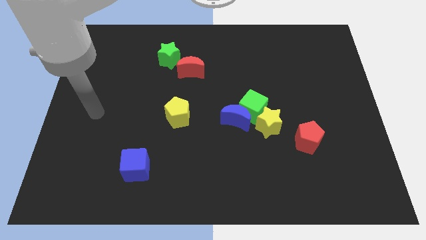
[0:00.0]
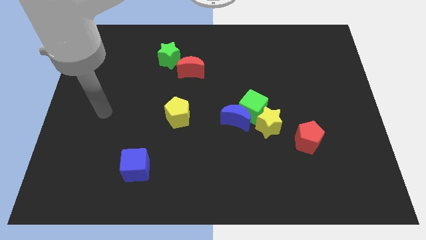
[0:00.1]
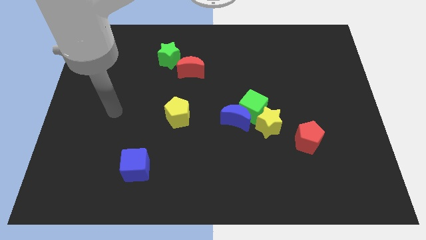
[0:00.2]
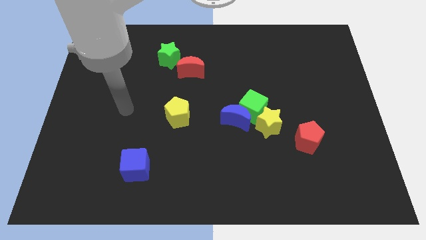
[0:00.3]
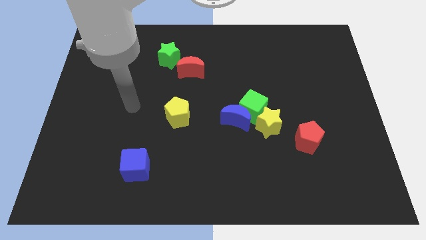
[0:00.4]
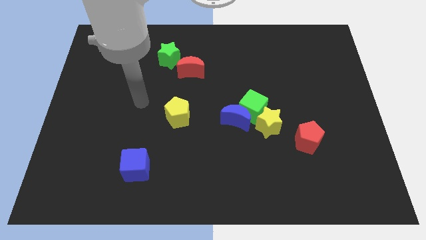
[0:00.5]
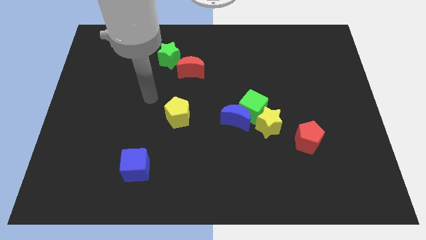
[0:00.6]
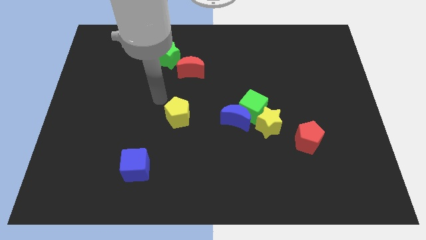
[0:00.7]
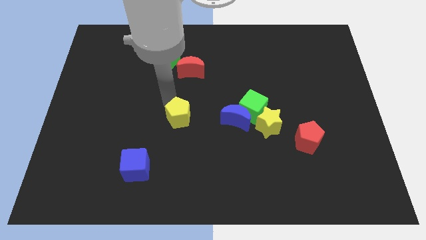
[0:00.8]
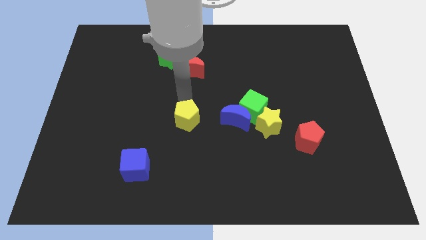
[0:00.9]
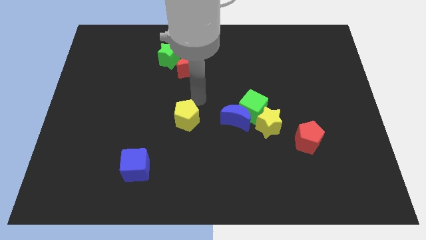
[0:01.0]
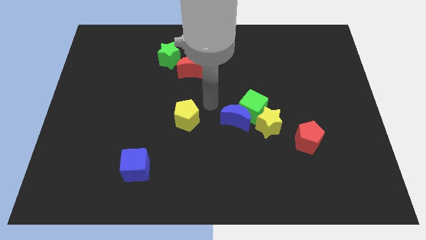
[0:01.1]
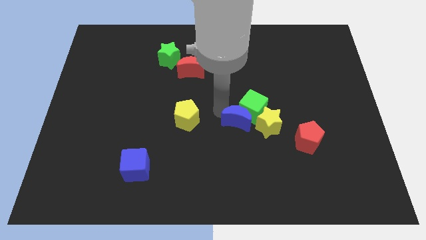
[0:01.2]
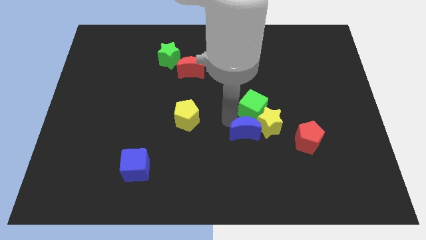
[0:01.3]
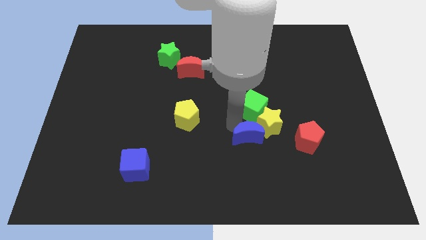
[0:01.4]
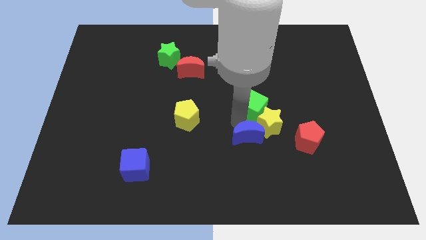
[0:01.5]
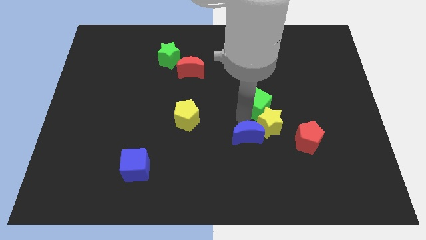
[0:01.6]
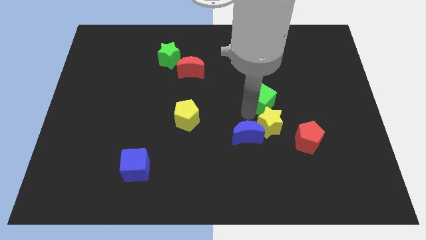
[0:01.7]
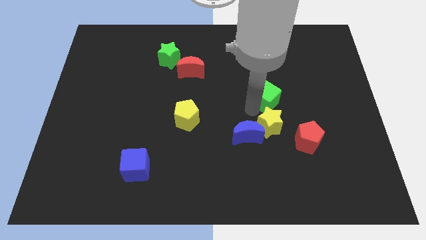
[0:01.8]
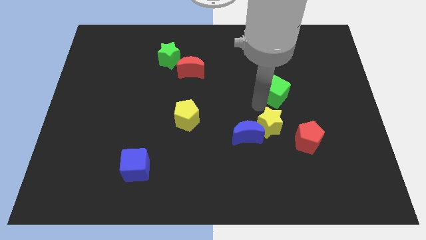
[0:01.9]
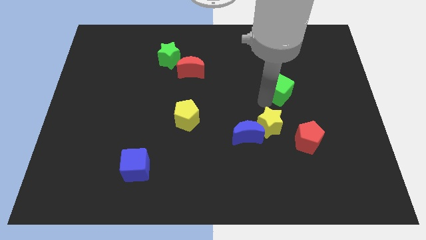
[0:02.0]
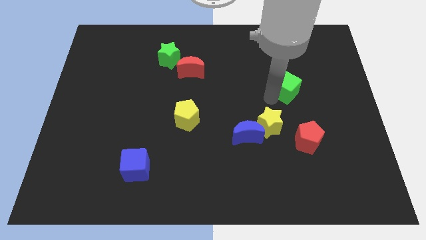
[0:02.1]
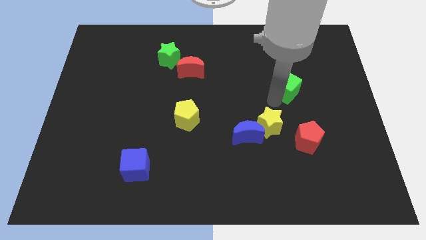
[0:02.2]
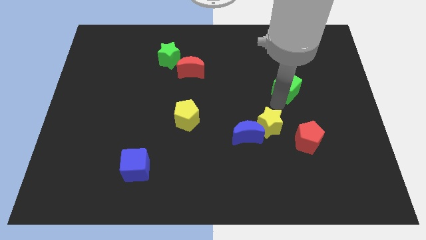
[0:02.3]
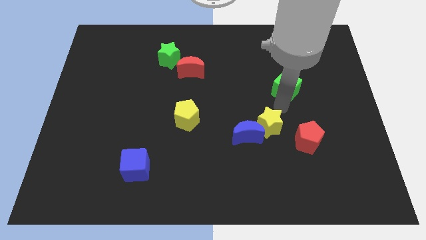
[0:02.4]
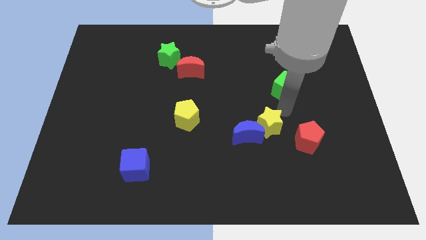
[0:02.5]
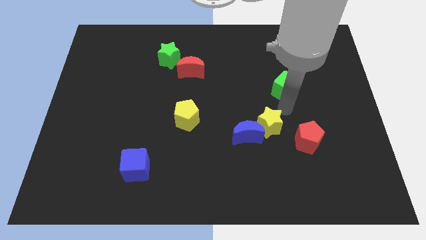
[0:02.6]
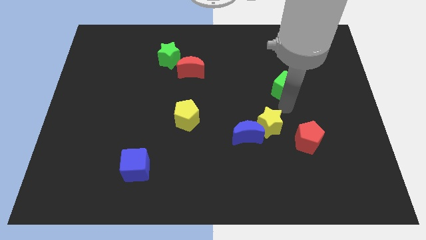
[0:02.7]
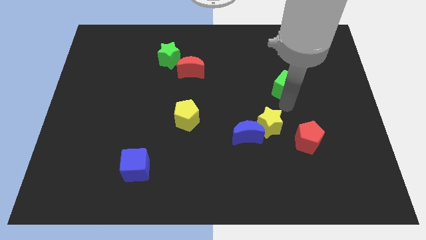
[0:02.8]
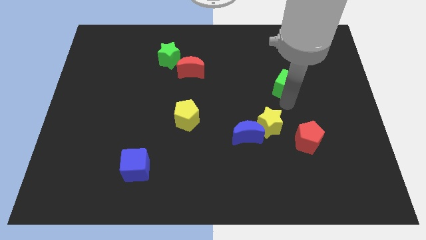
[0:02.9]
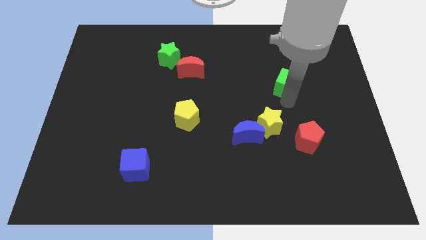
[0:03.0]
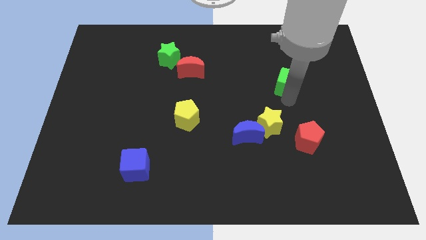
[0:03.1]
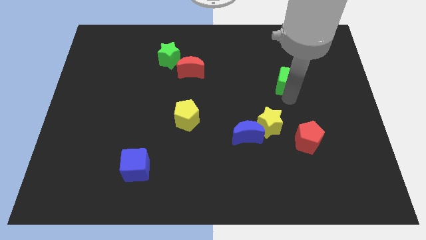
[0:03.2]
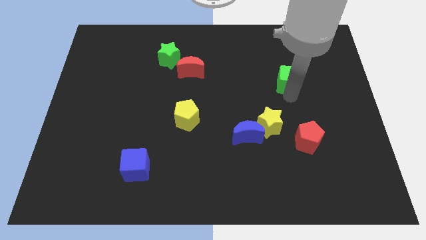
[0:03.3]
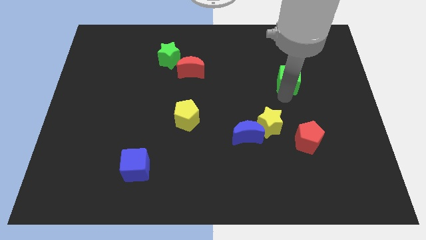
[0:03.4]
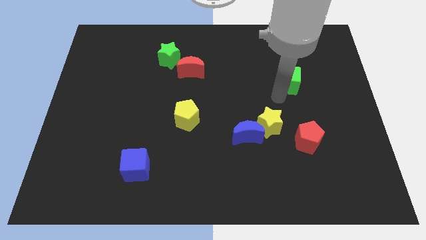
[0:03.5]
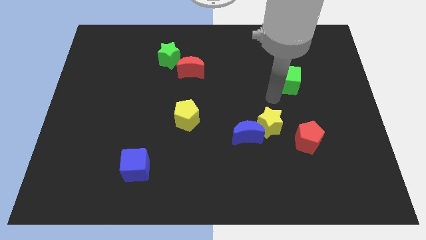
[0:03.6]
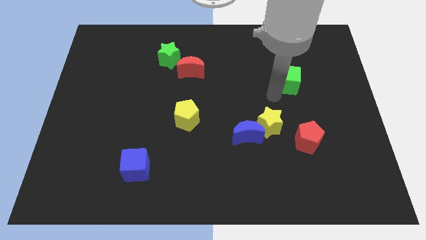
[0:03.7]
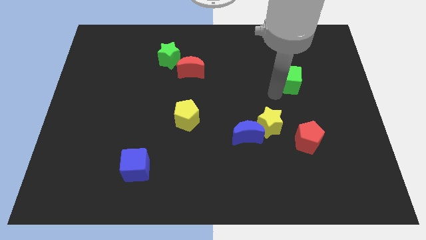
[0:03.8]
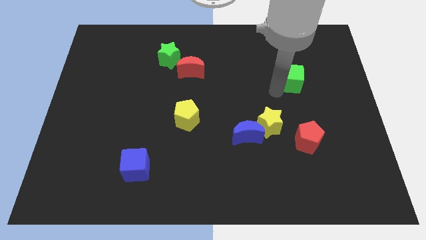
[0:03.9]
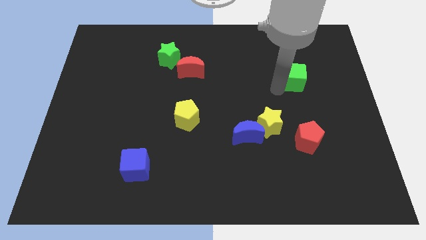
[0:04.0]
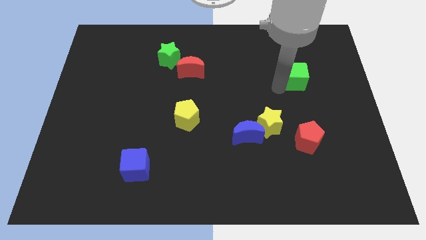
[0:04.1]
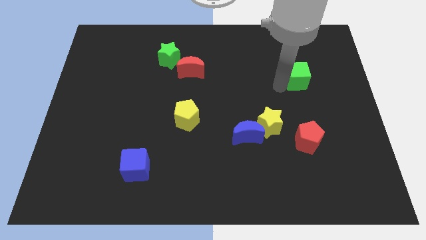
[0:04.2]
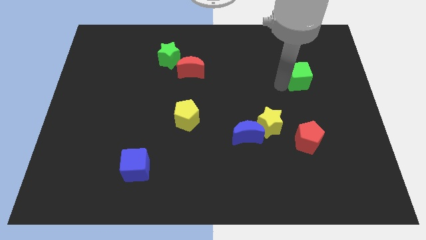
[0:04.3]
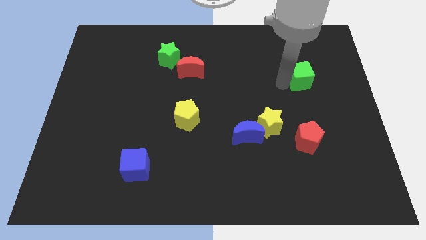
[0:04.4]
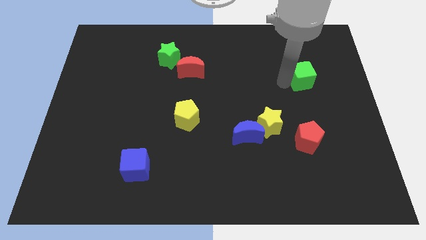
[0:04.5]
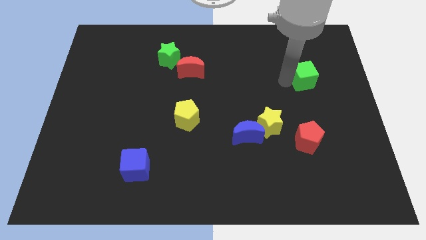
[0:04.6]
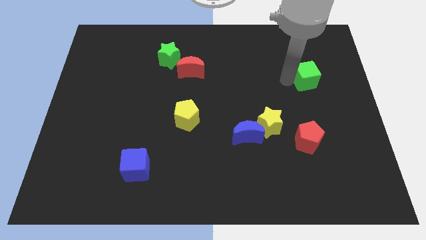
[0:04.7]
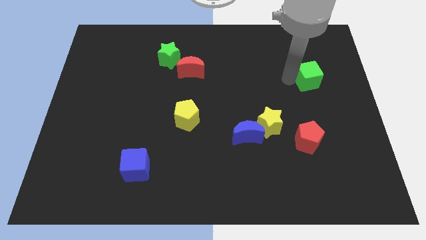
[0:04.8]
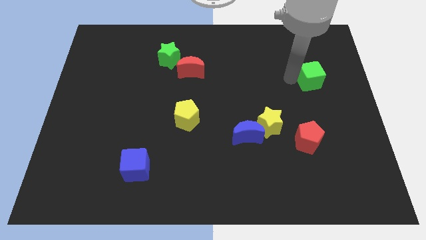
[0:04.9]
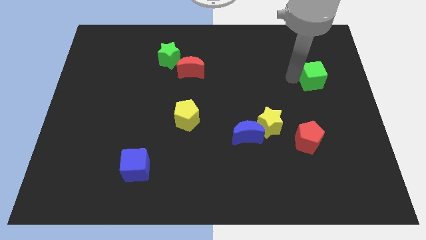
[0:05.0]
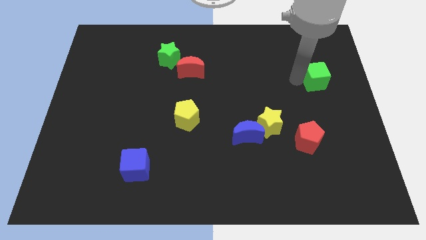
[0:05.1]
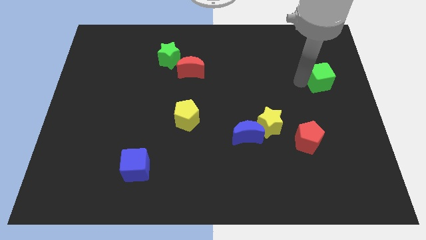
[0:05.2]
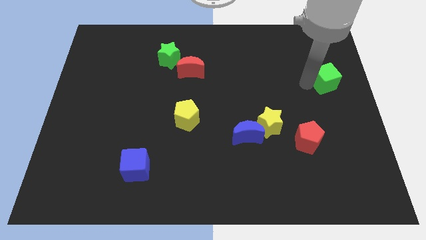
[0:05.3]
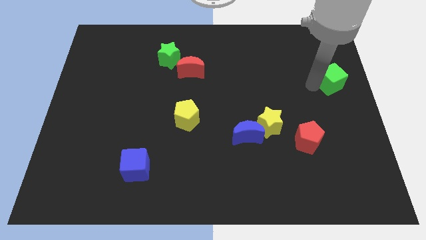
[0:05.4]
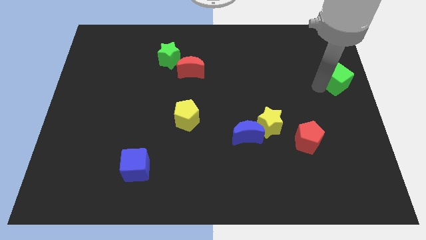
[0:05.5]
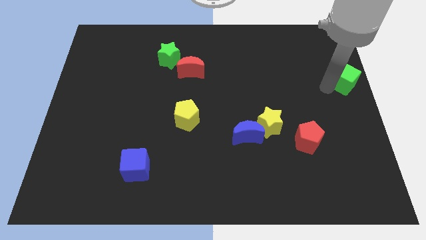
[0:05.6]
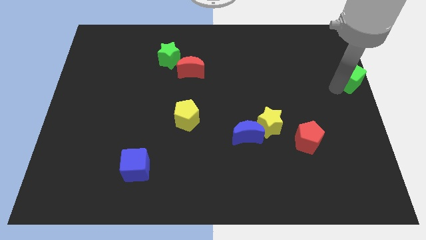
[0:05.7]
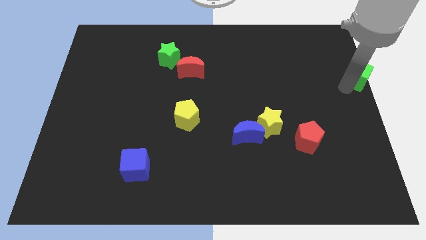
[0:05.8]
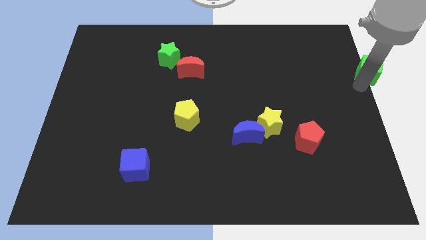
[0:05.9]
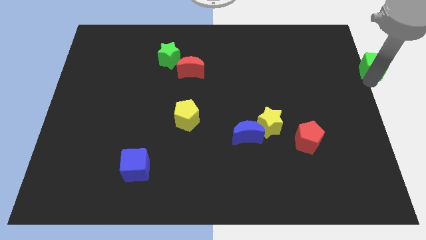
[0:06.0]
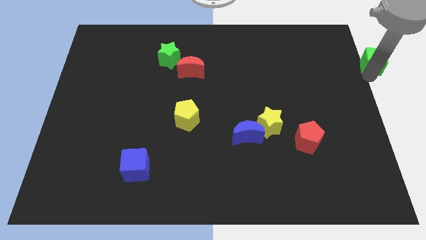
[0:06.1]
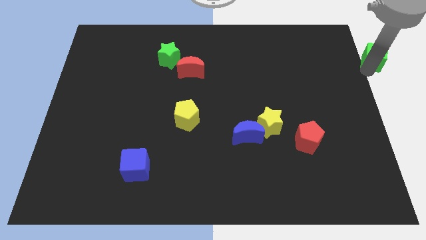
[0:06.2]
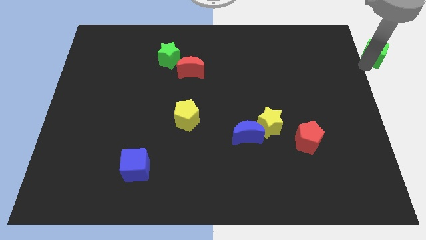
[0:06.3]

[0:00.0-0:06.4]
slide the green cube to the top right

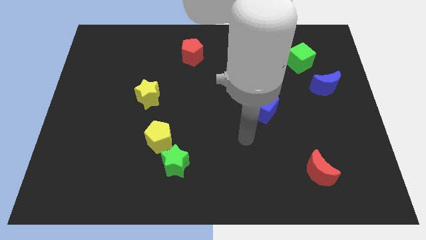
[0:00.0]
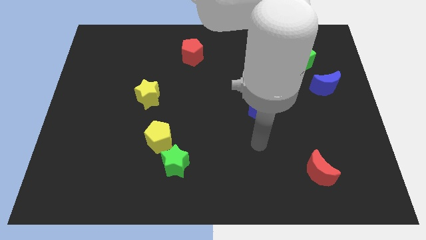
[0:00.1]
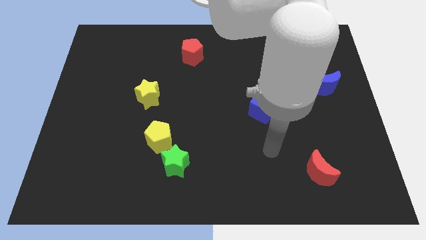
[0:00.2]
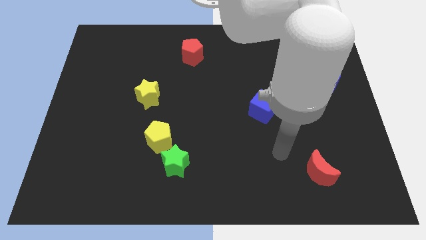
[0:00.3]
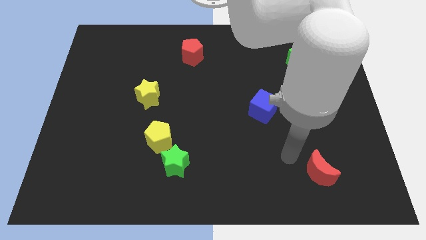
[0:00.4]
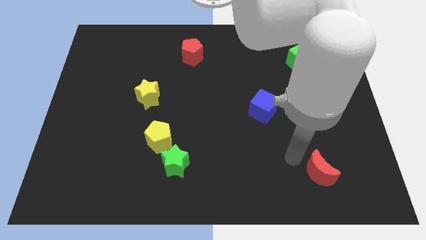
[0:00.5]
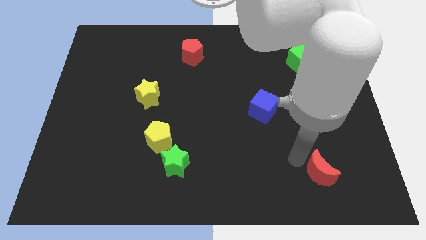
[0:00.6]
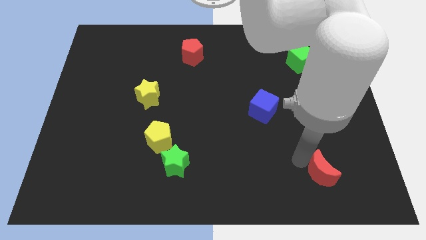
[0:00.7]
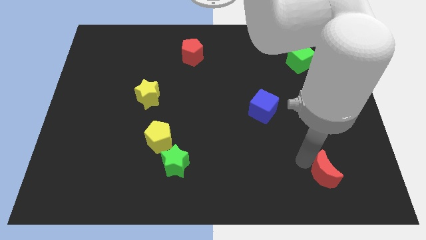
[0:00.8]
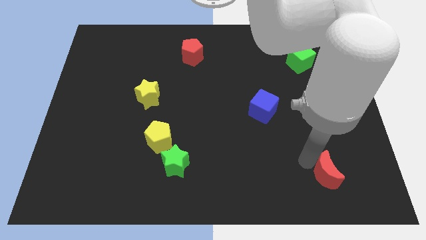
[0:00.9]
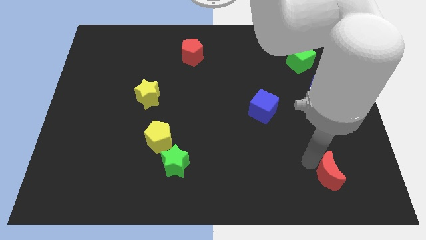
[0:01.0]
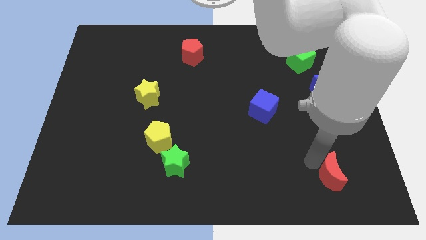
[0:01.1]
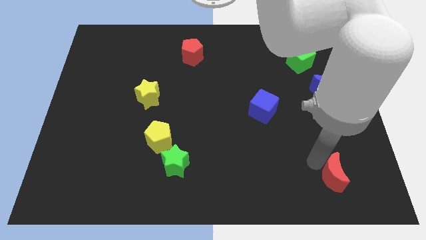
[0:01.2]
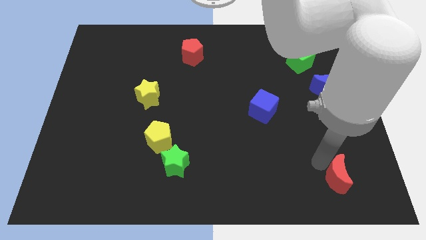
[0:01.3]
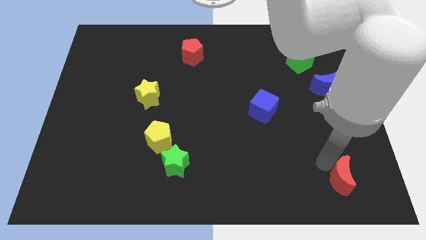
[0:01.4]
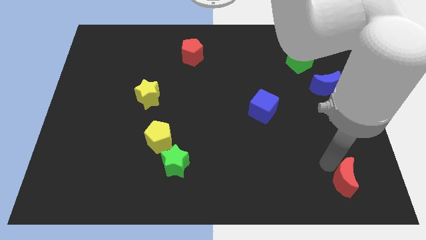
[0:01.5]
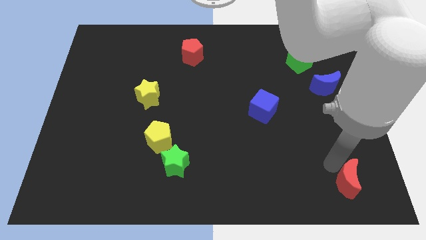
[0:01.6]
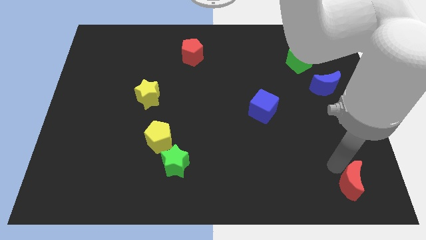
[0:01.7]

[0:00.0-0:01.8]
push the red moon to the bottom right corner
